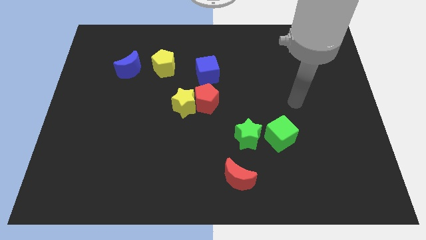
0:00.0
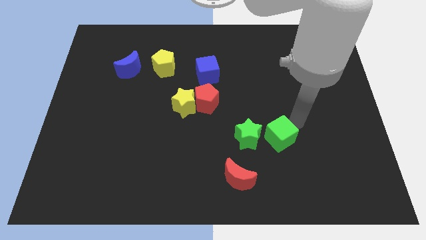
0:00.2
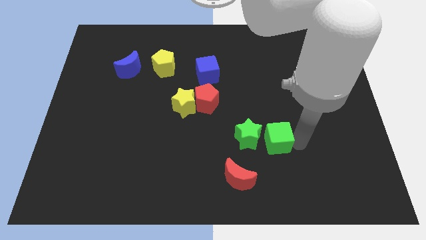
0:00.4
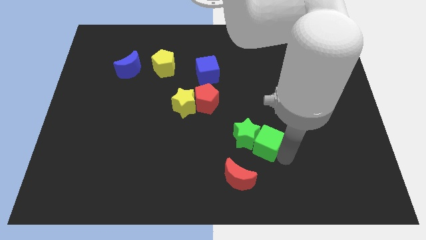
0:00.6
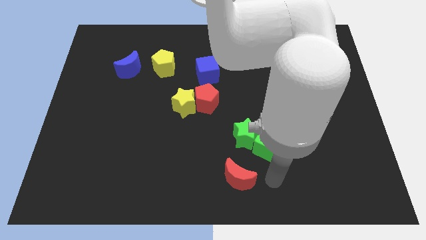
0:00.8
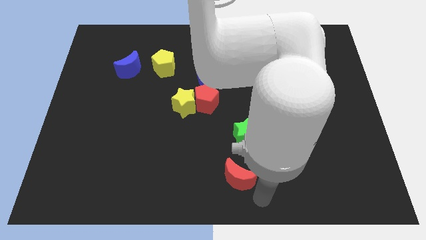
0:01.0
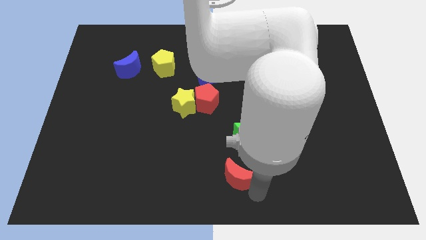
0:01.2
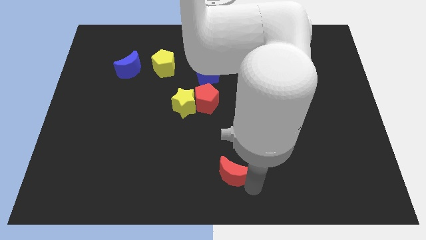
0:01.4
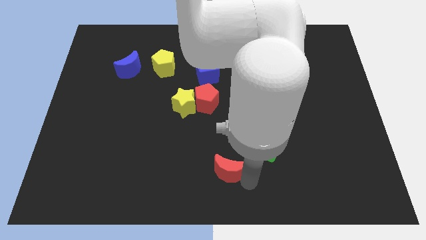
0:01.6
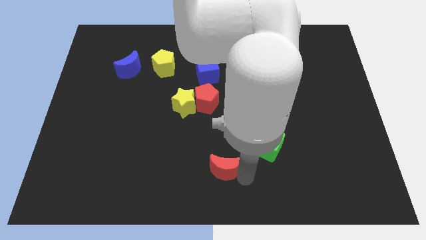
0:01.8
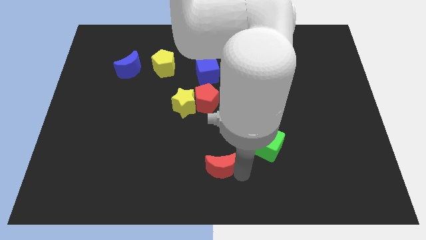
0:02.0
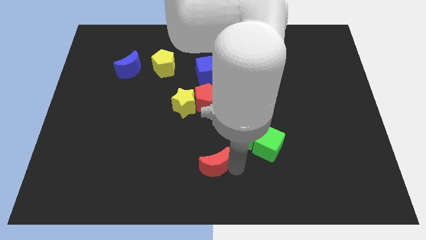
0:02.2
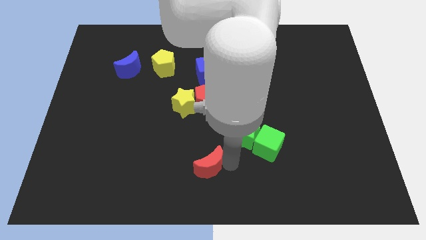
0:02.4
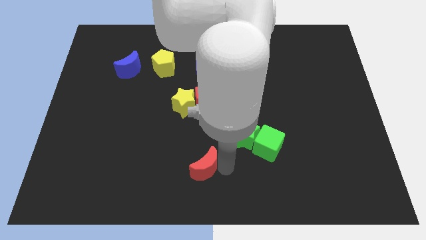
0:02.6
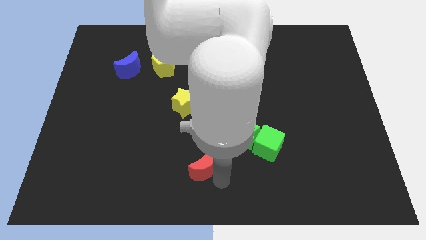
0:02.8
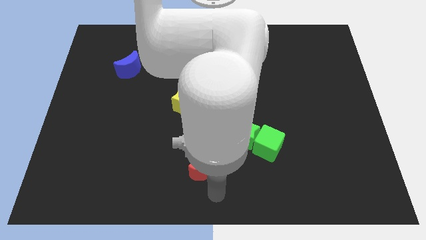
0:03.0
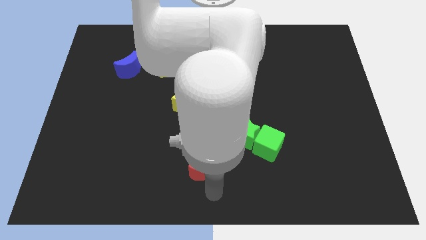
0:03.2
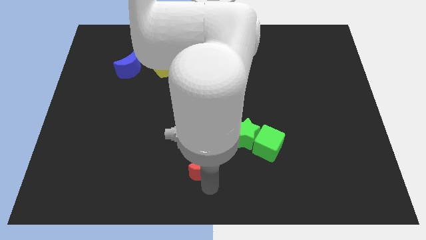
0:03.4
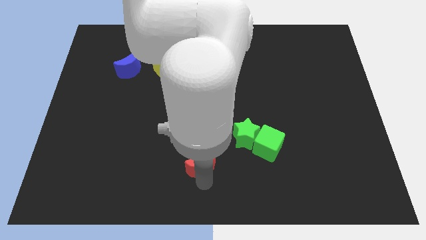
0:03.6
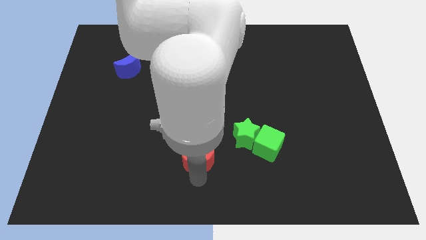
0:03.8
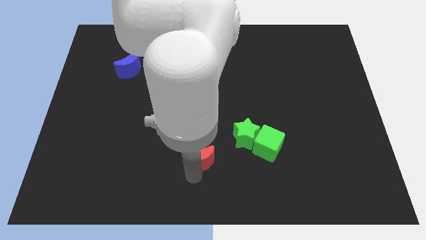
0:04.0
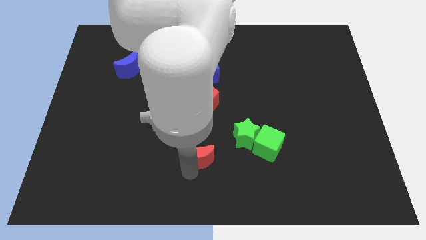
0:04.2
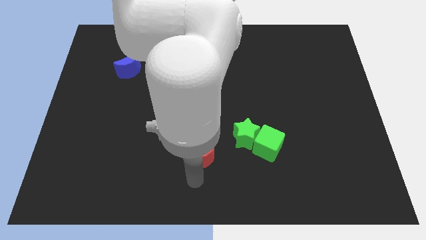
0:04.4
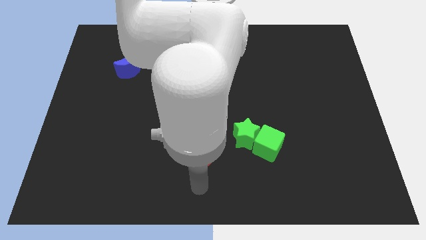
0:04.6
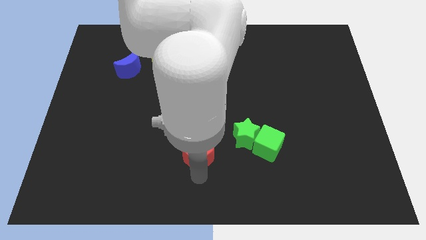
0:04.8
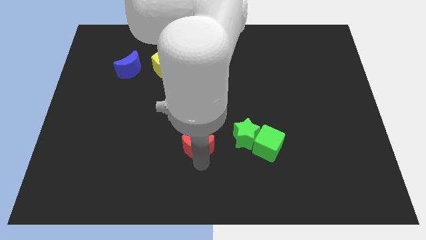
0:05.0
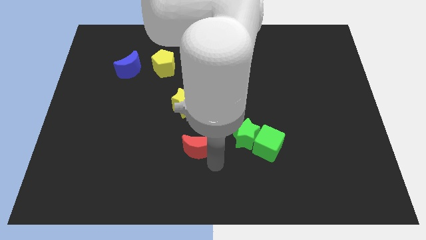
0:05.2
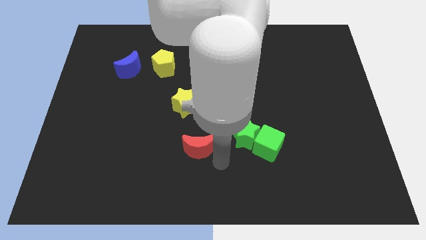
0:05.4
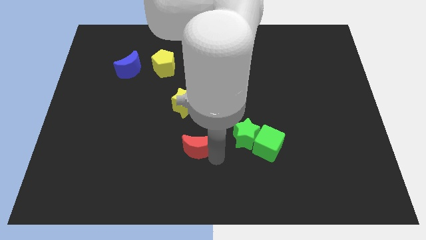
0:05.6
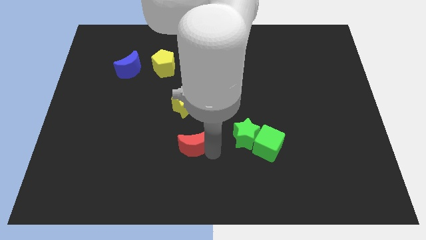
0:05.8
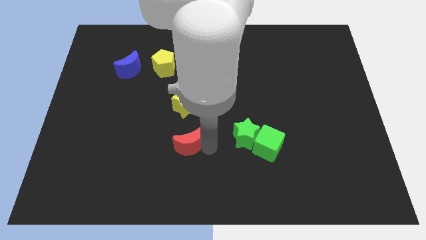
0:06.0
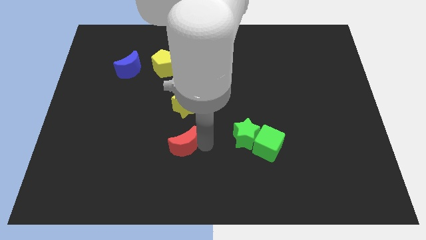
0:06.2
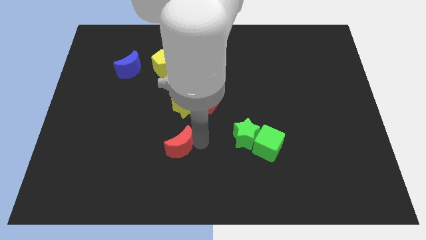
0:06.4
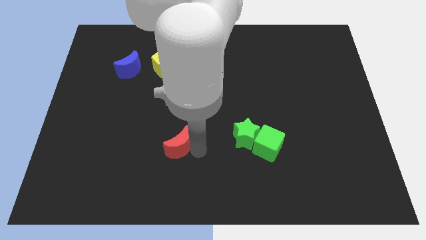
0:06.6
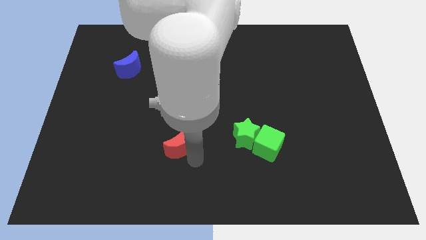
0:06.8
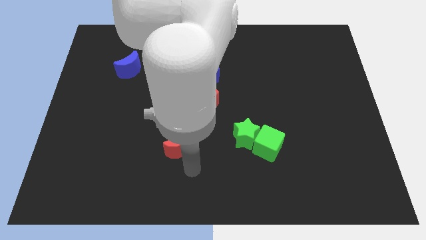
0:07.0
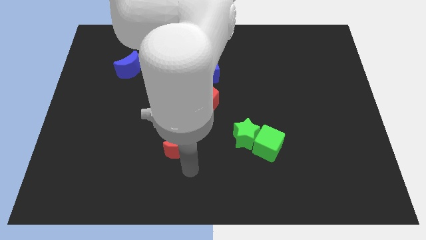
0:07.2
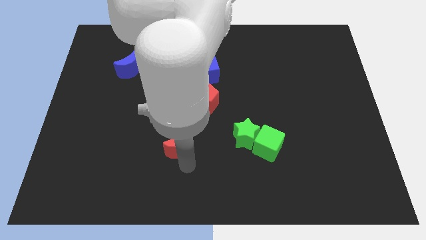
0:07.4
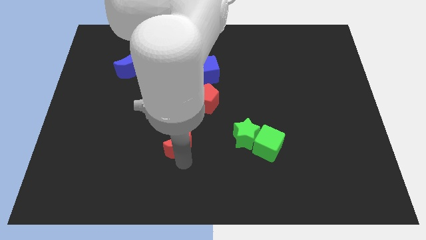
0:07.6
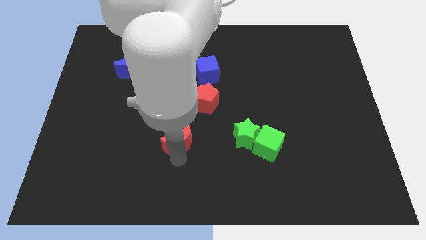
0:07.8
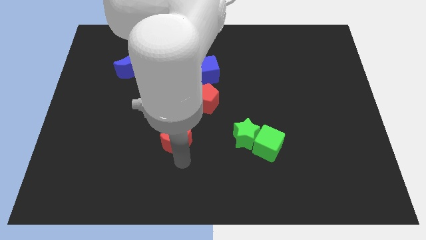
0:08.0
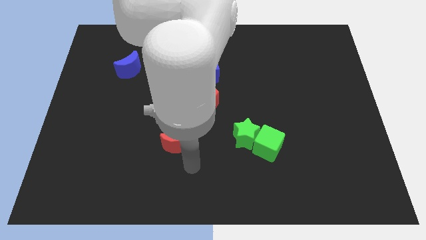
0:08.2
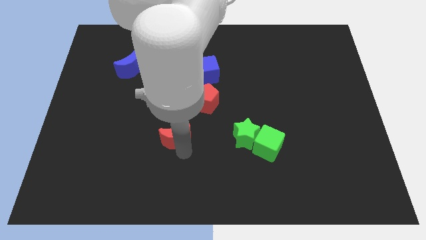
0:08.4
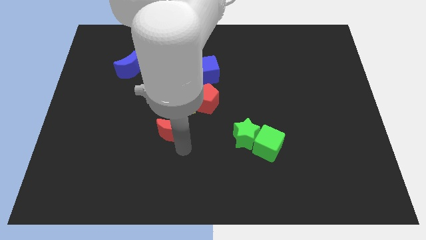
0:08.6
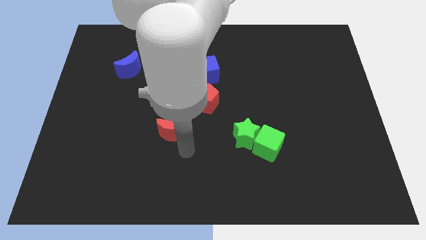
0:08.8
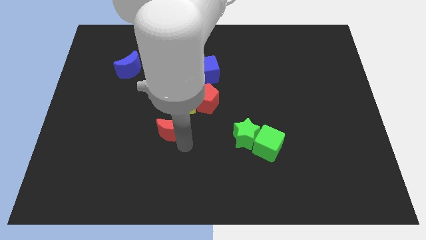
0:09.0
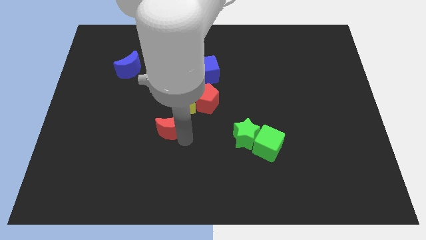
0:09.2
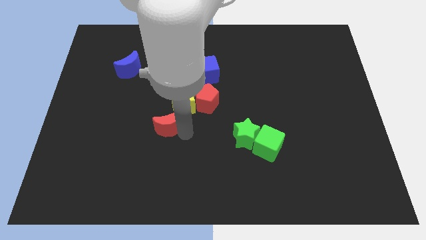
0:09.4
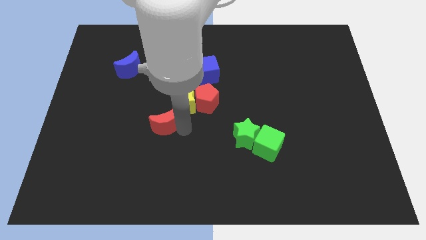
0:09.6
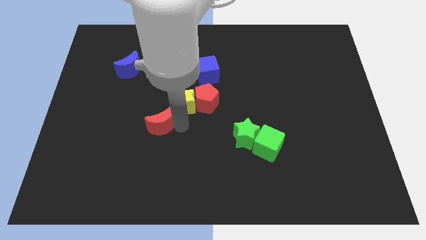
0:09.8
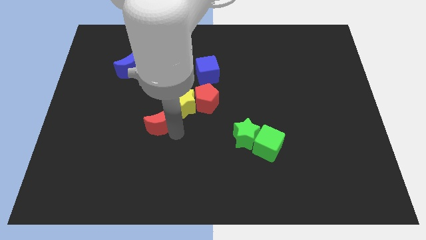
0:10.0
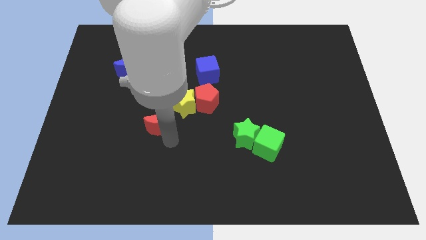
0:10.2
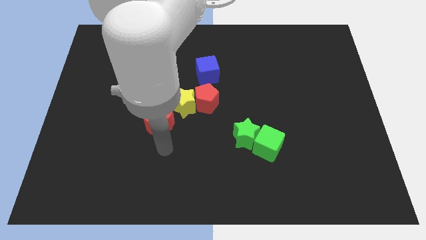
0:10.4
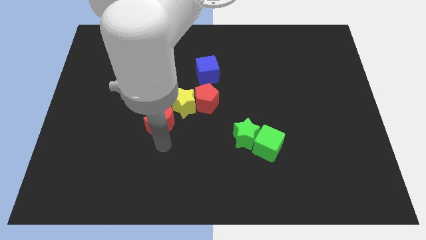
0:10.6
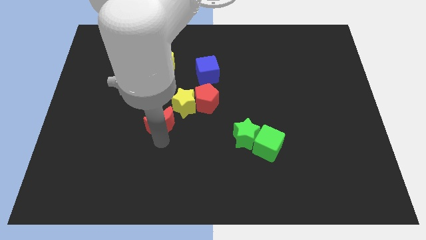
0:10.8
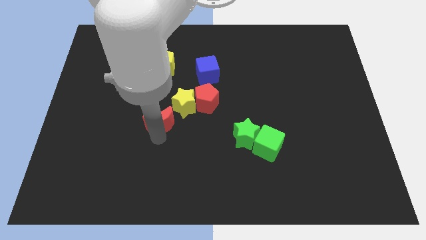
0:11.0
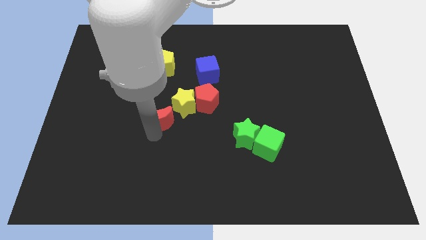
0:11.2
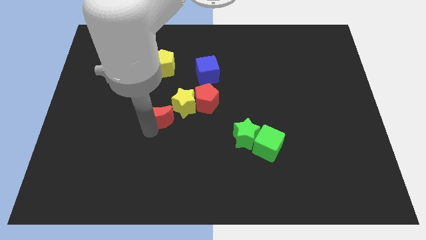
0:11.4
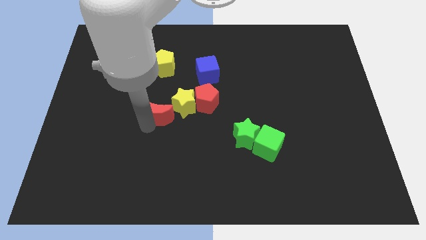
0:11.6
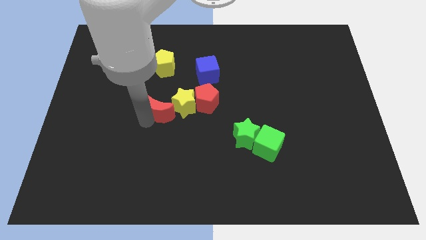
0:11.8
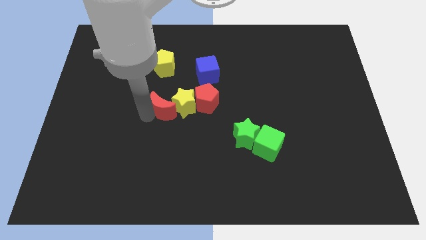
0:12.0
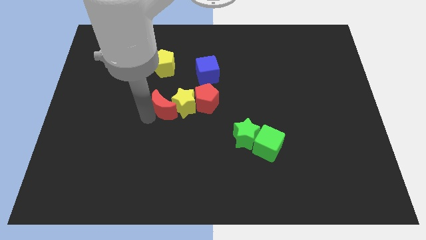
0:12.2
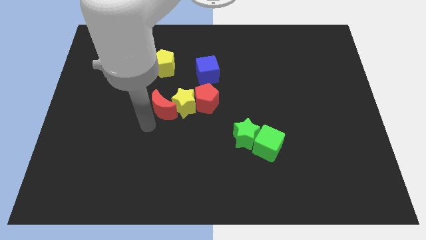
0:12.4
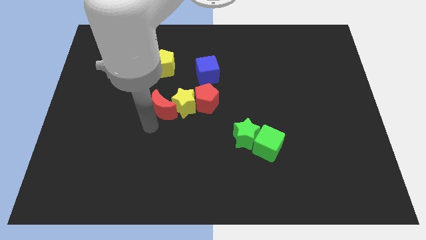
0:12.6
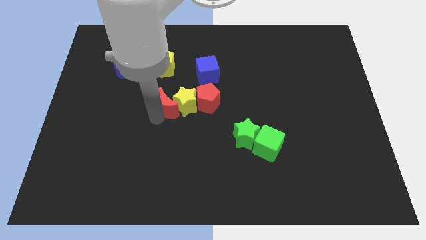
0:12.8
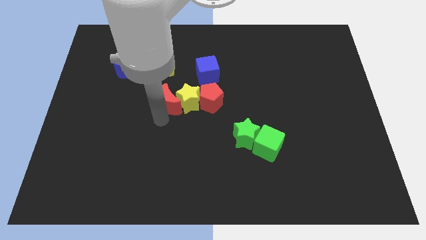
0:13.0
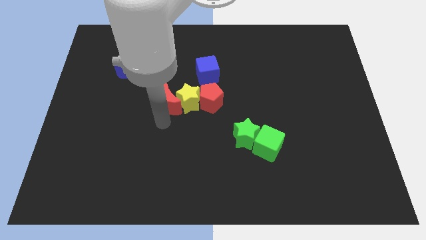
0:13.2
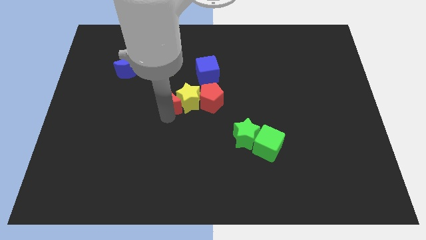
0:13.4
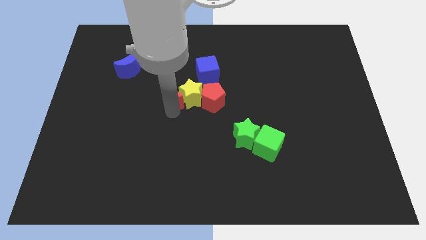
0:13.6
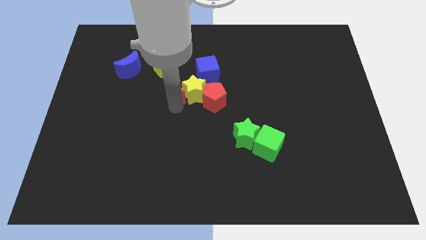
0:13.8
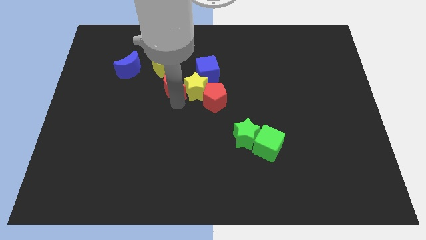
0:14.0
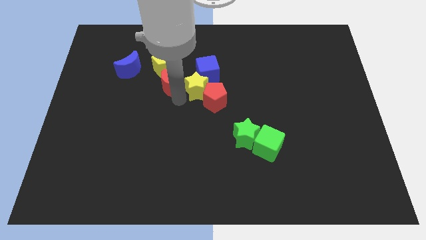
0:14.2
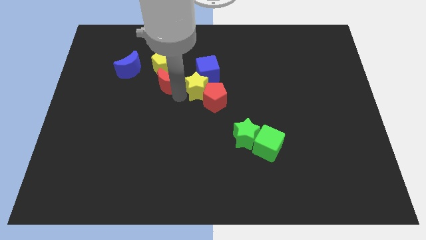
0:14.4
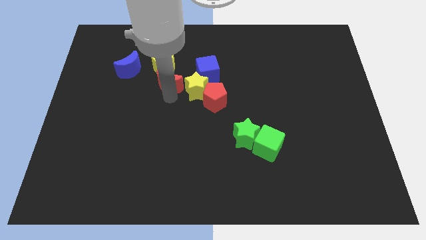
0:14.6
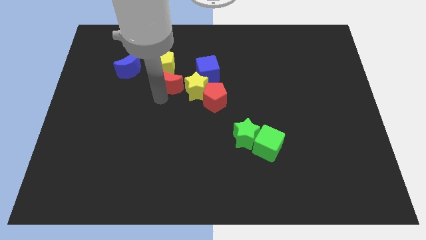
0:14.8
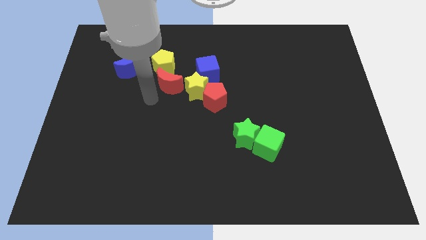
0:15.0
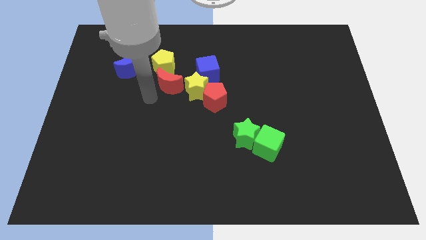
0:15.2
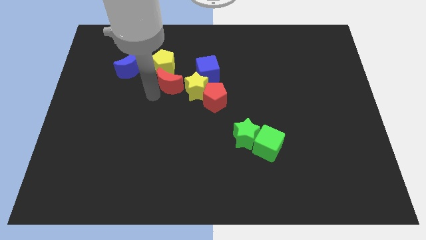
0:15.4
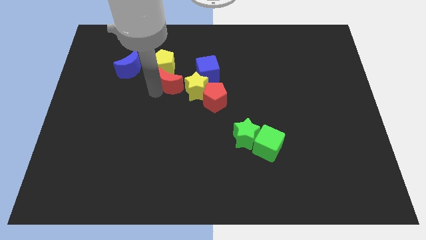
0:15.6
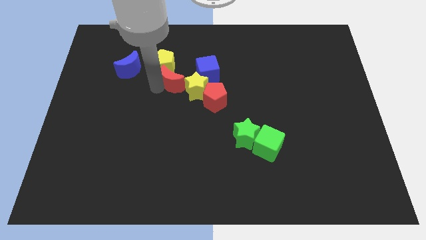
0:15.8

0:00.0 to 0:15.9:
slide the red moon to the right side of the blue moon
